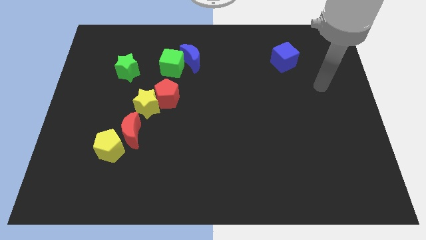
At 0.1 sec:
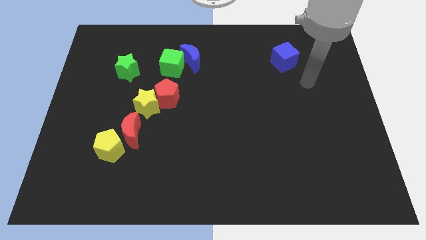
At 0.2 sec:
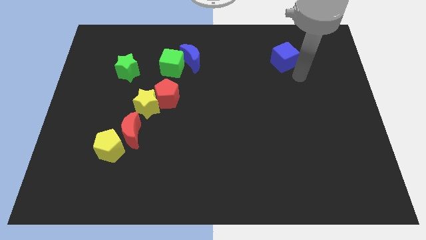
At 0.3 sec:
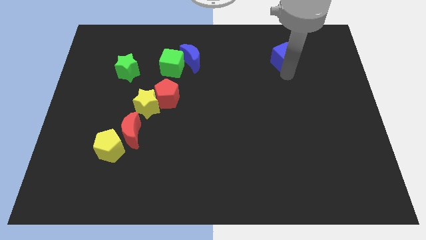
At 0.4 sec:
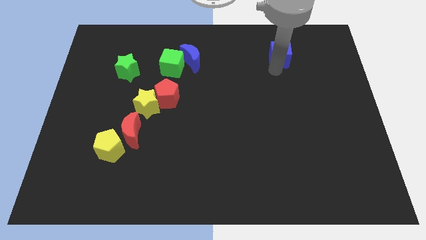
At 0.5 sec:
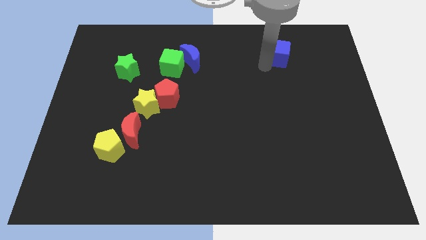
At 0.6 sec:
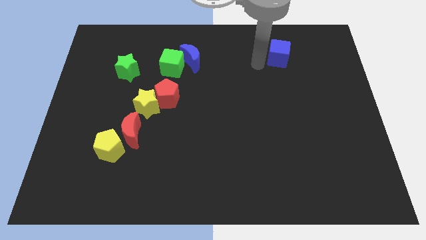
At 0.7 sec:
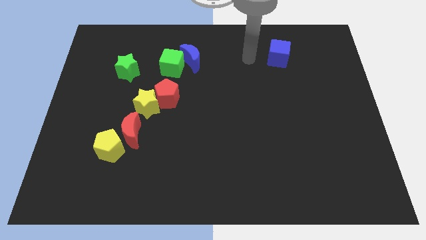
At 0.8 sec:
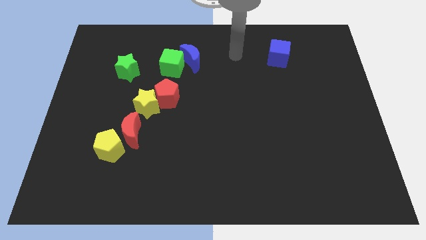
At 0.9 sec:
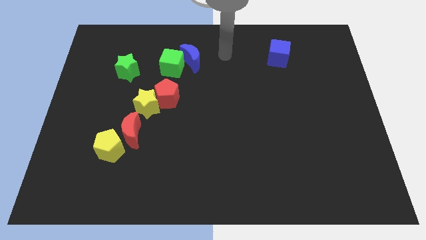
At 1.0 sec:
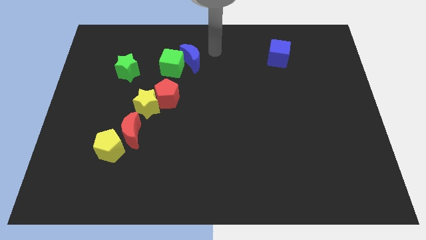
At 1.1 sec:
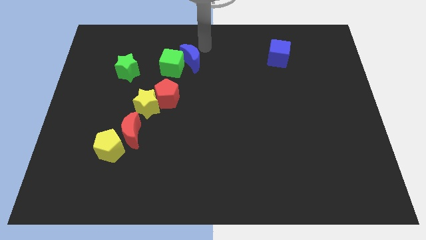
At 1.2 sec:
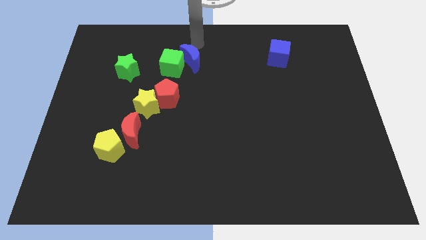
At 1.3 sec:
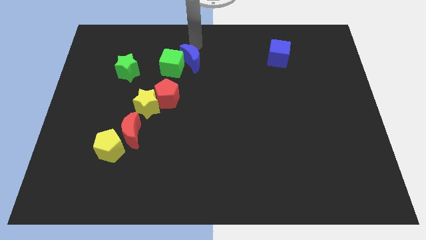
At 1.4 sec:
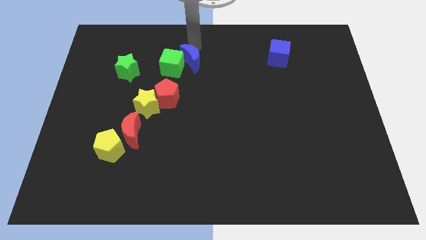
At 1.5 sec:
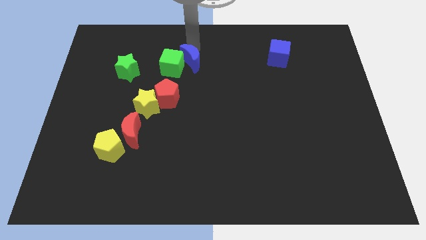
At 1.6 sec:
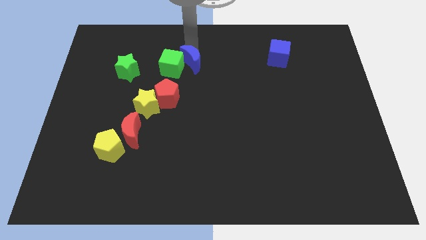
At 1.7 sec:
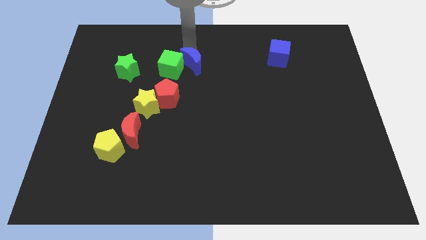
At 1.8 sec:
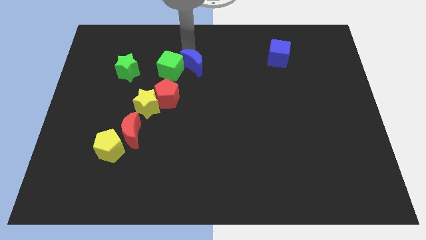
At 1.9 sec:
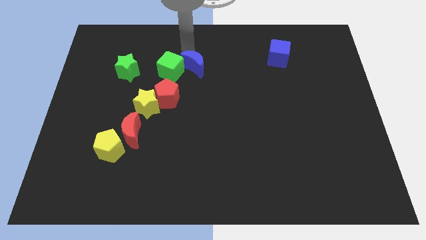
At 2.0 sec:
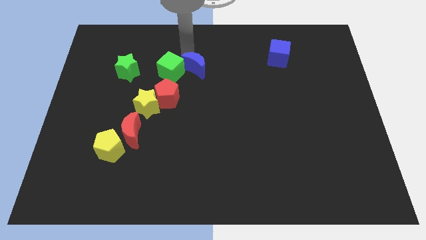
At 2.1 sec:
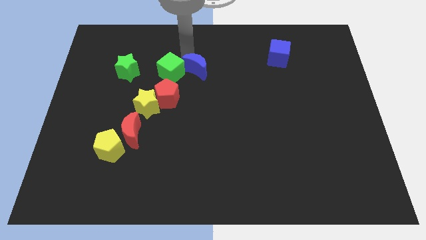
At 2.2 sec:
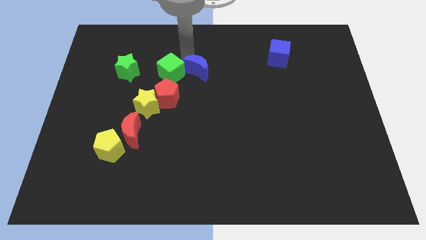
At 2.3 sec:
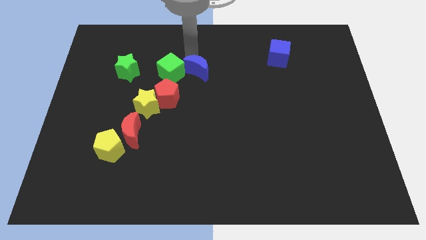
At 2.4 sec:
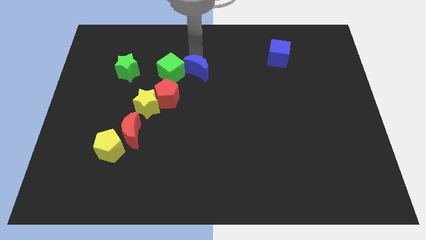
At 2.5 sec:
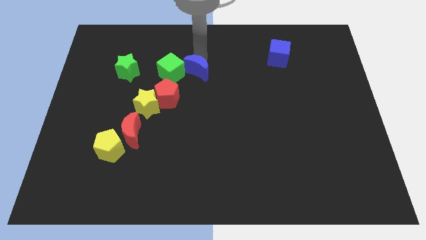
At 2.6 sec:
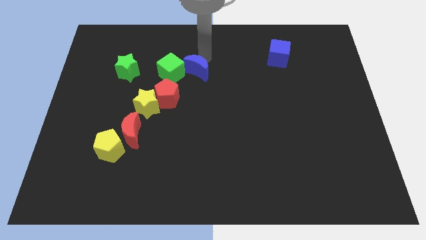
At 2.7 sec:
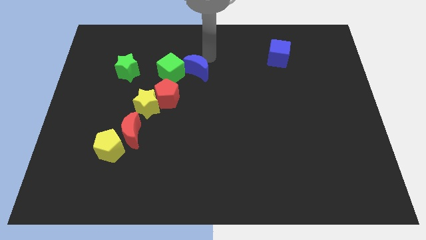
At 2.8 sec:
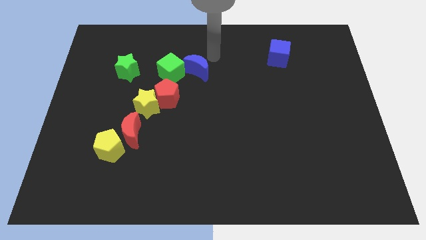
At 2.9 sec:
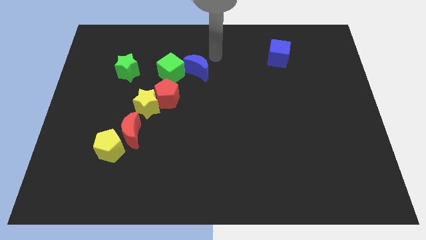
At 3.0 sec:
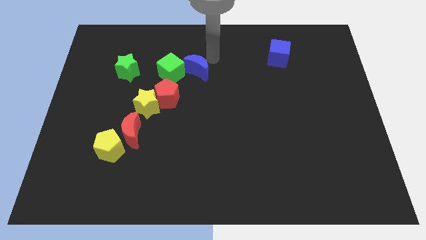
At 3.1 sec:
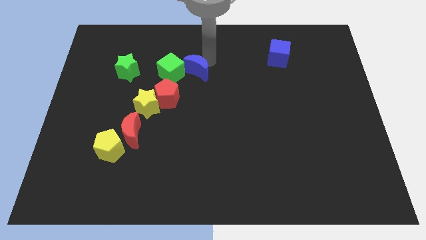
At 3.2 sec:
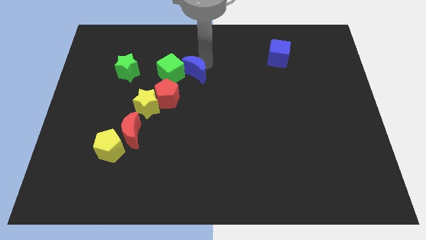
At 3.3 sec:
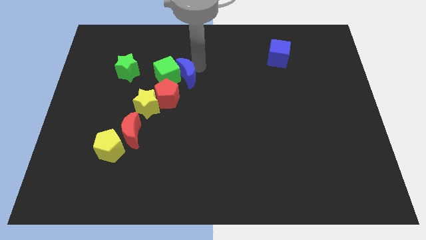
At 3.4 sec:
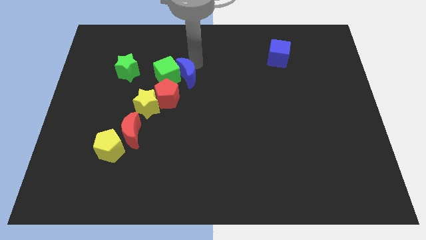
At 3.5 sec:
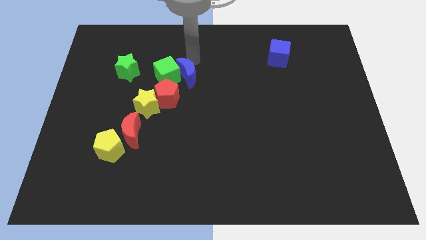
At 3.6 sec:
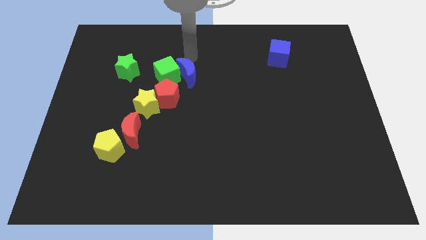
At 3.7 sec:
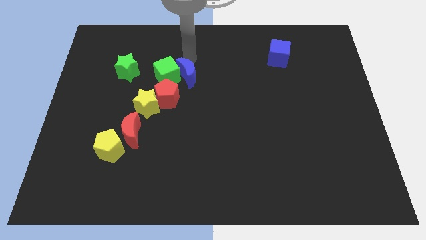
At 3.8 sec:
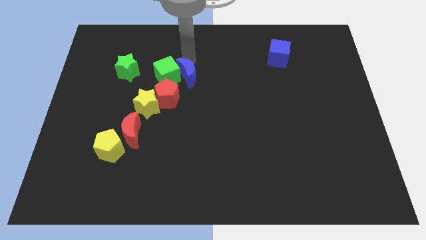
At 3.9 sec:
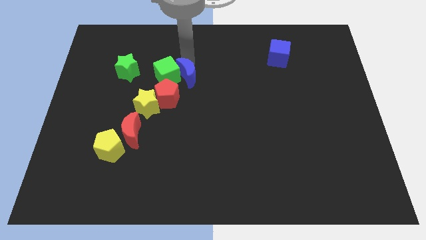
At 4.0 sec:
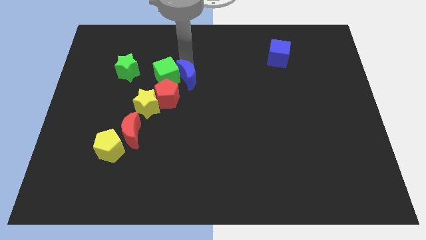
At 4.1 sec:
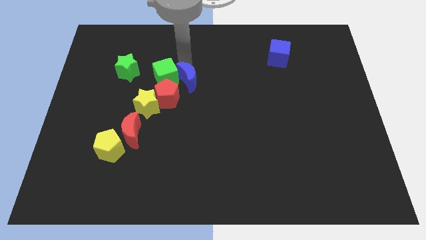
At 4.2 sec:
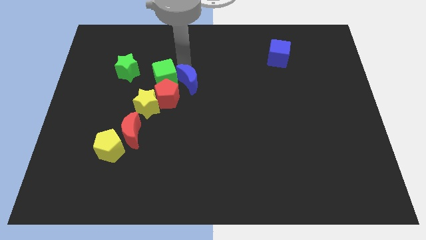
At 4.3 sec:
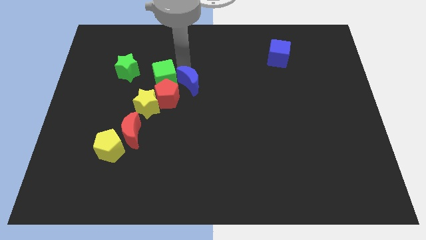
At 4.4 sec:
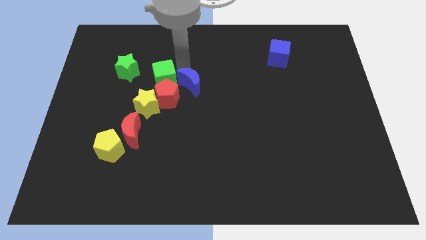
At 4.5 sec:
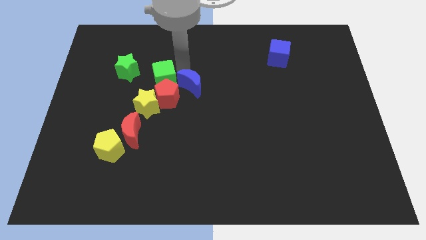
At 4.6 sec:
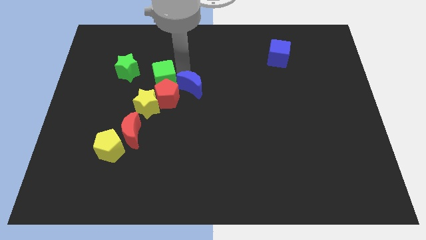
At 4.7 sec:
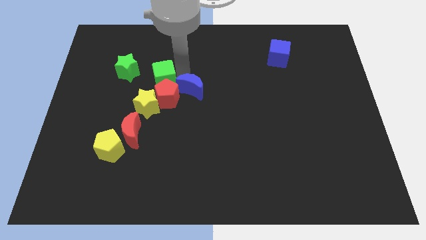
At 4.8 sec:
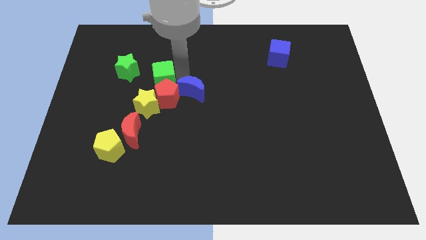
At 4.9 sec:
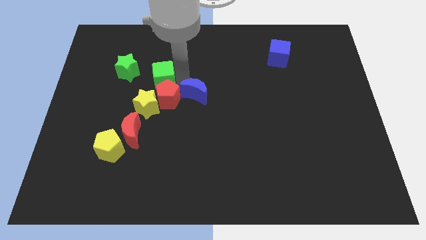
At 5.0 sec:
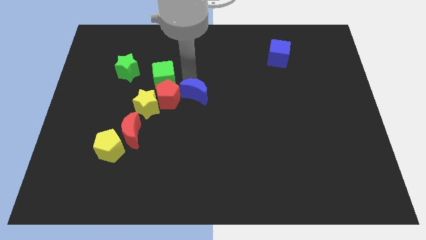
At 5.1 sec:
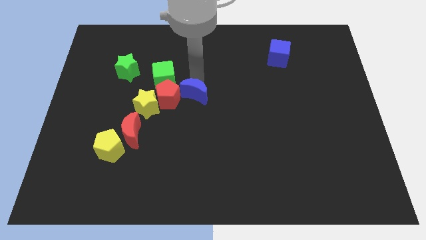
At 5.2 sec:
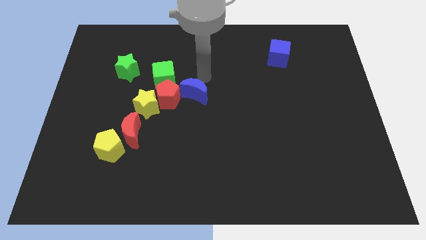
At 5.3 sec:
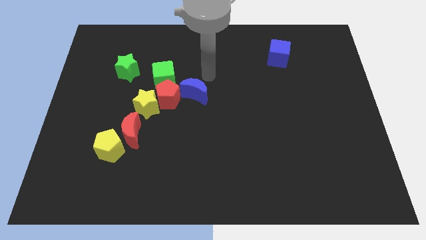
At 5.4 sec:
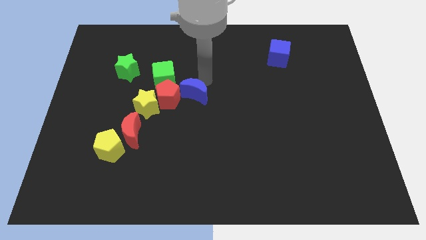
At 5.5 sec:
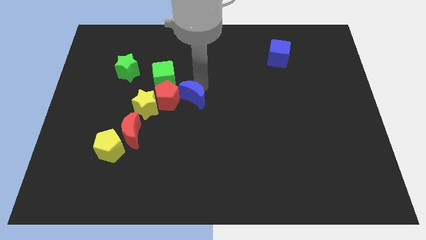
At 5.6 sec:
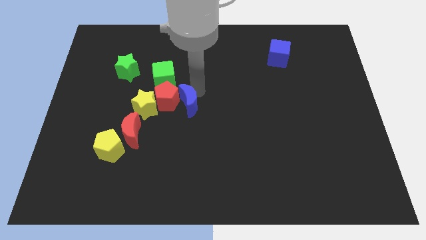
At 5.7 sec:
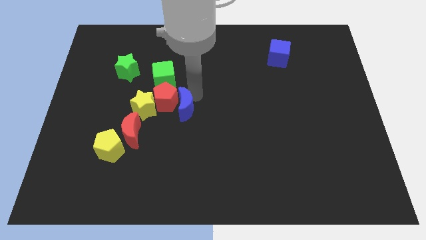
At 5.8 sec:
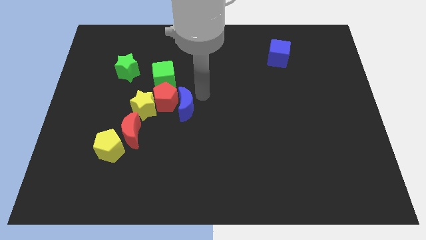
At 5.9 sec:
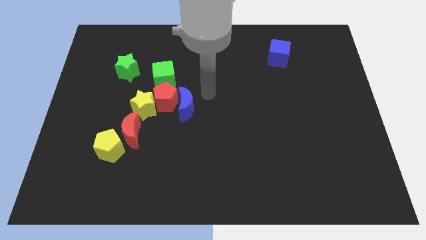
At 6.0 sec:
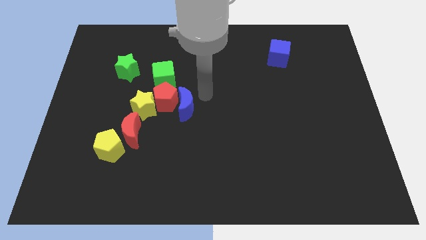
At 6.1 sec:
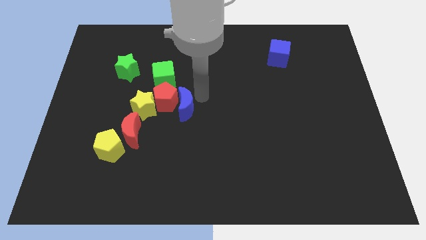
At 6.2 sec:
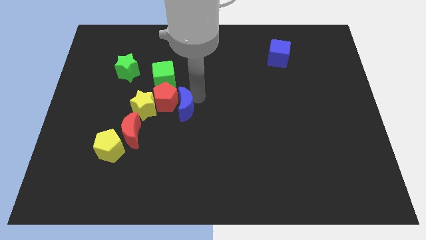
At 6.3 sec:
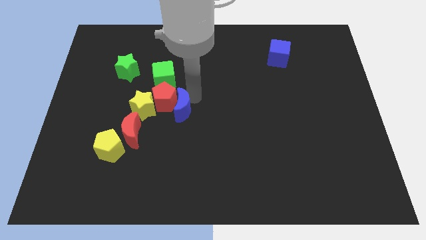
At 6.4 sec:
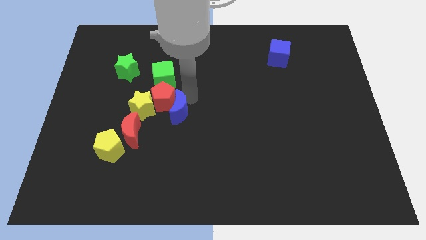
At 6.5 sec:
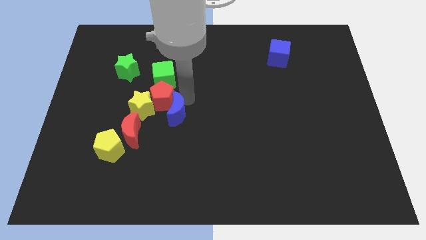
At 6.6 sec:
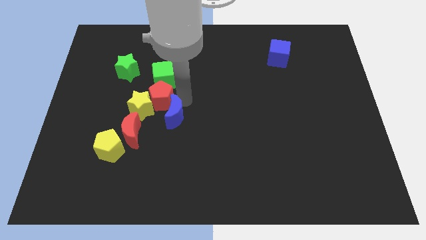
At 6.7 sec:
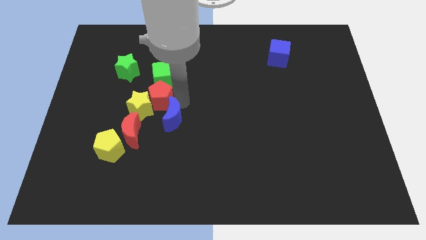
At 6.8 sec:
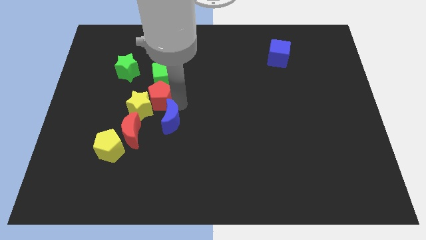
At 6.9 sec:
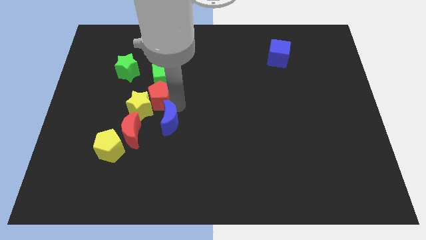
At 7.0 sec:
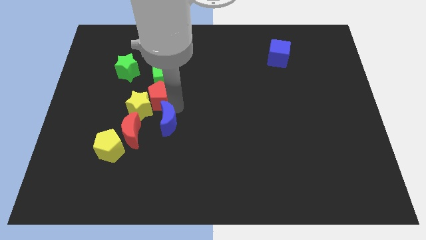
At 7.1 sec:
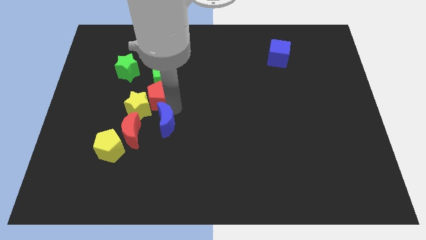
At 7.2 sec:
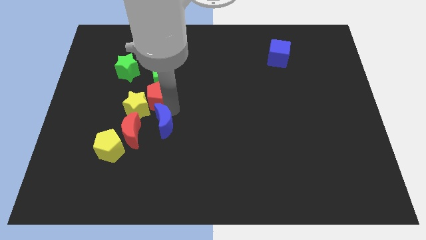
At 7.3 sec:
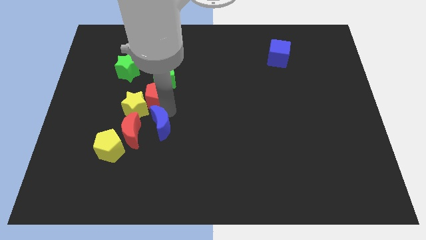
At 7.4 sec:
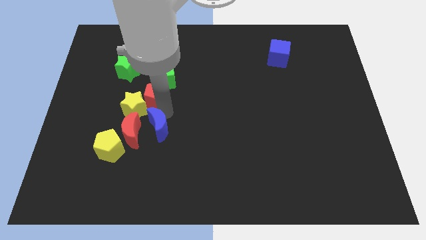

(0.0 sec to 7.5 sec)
push the blue moon close to the red moon
